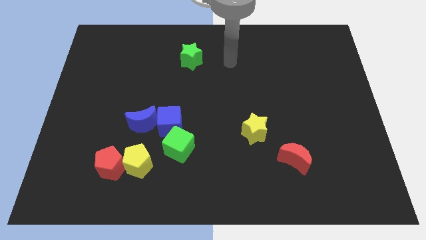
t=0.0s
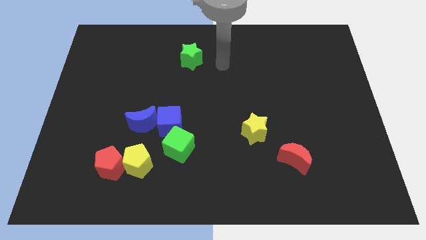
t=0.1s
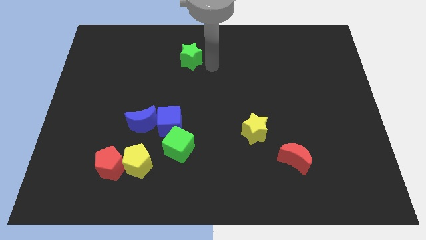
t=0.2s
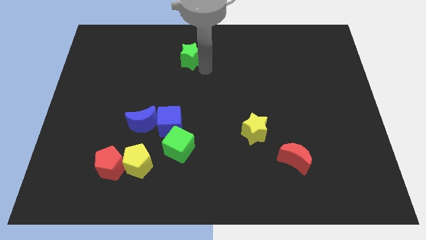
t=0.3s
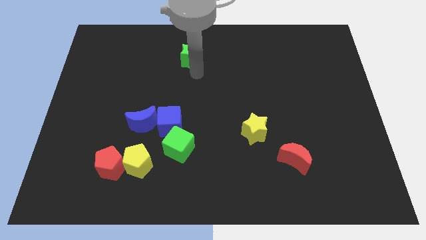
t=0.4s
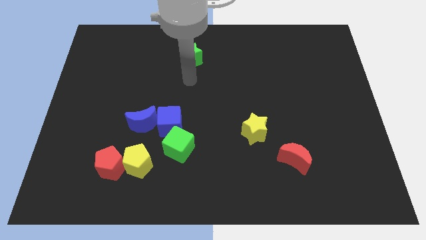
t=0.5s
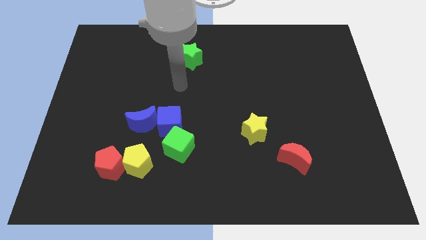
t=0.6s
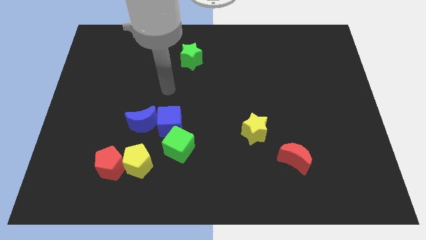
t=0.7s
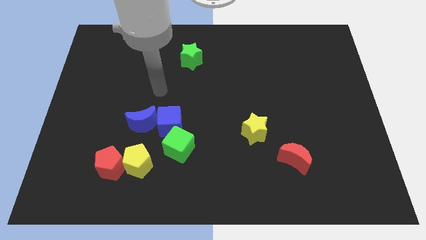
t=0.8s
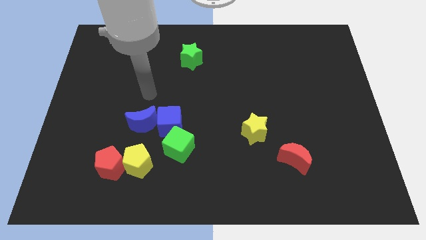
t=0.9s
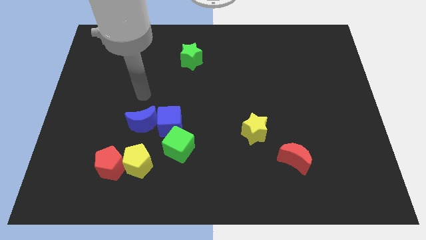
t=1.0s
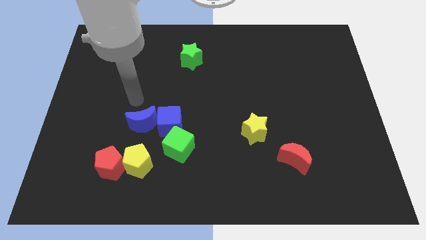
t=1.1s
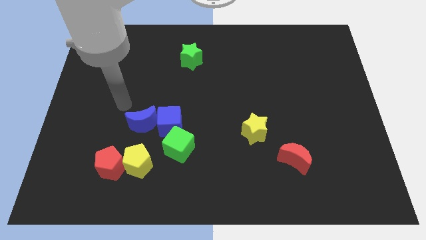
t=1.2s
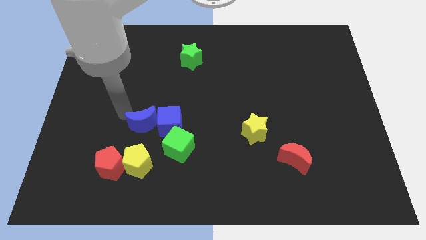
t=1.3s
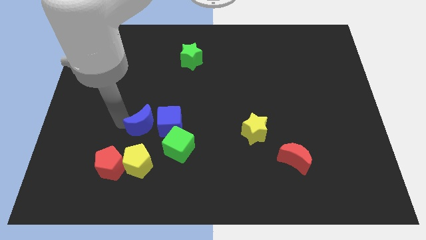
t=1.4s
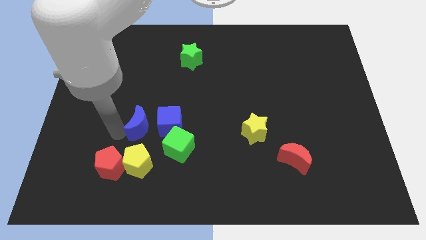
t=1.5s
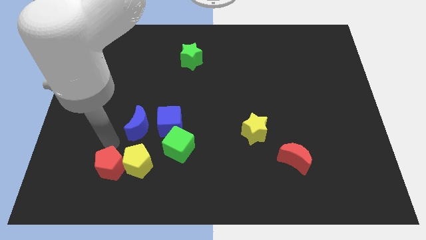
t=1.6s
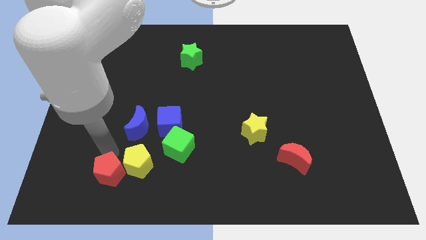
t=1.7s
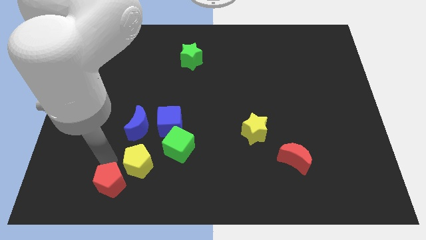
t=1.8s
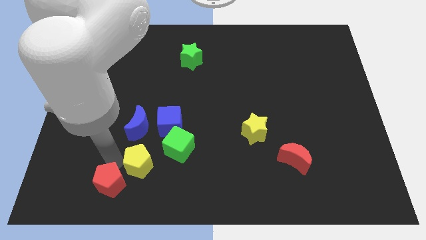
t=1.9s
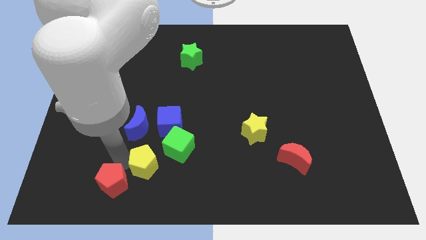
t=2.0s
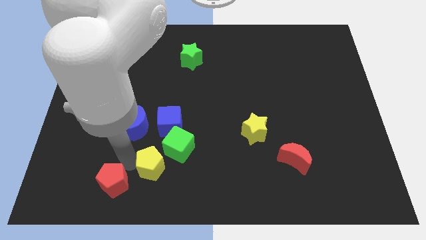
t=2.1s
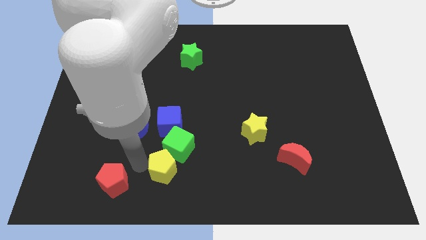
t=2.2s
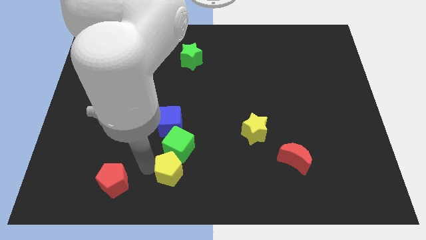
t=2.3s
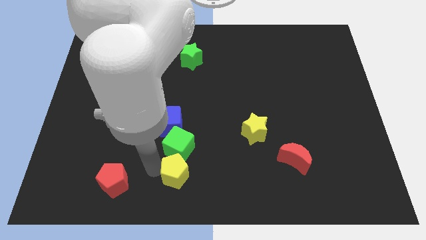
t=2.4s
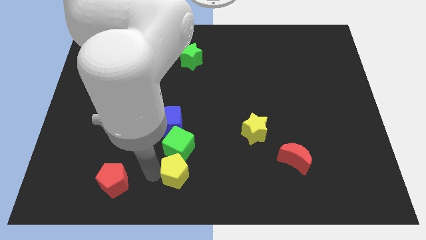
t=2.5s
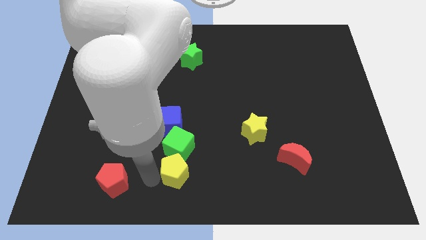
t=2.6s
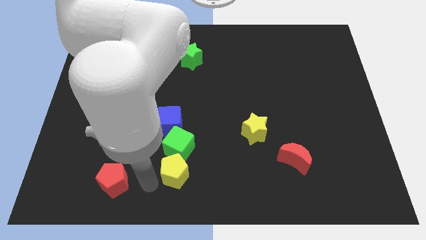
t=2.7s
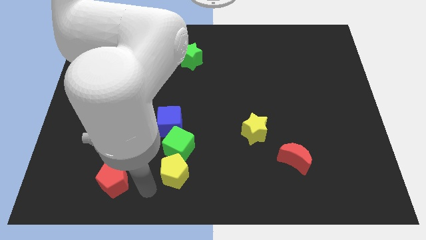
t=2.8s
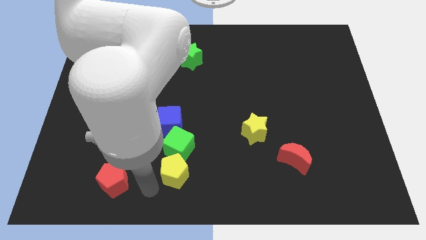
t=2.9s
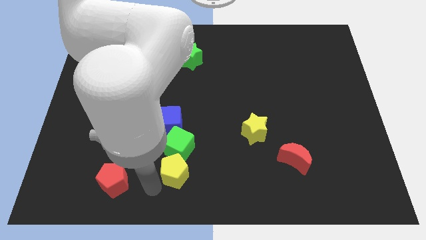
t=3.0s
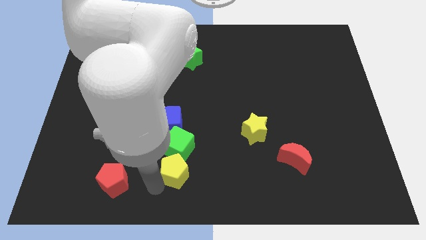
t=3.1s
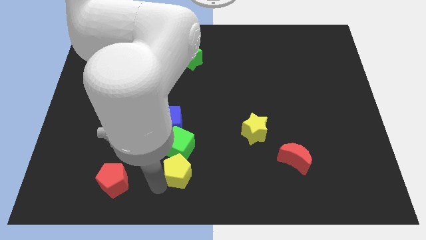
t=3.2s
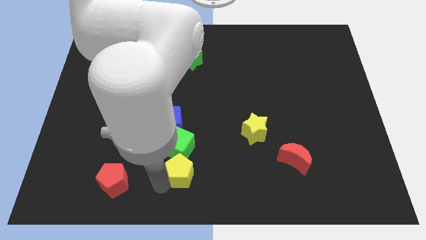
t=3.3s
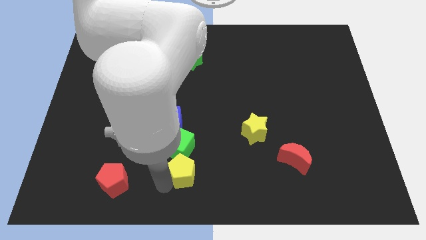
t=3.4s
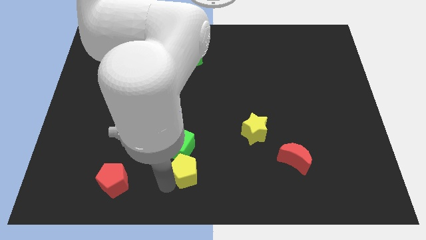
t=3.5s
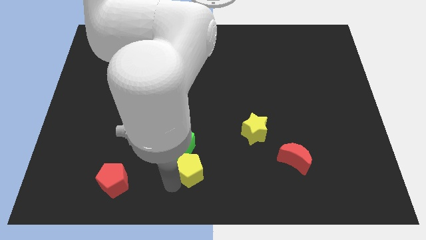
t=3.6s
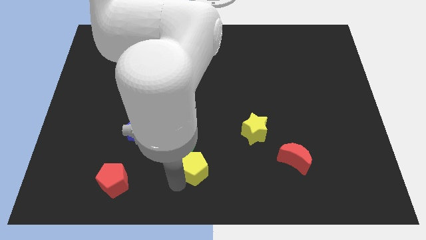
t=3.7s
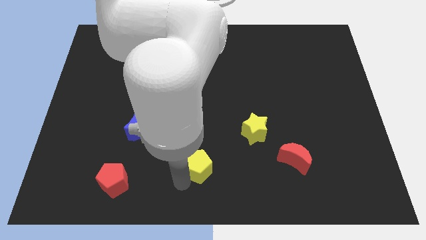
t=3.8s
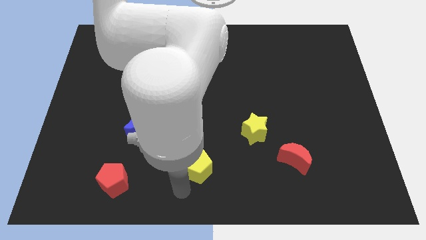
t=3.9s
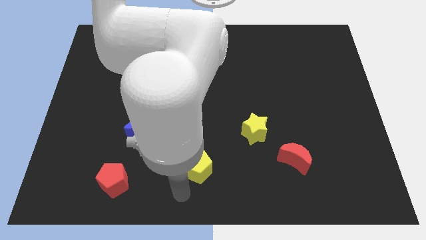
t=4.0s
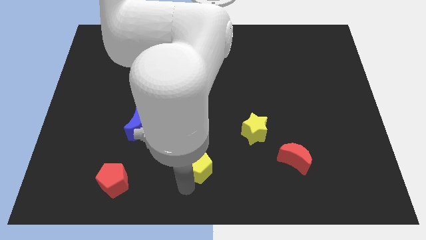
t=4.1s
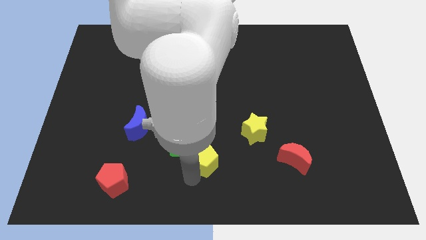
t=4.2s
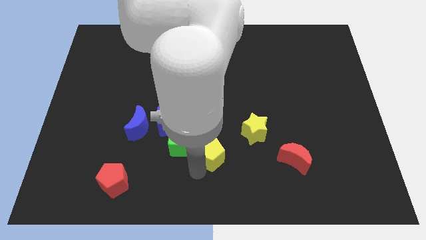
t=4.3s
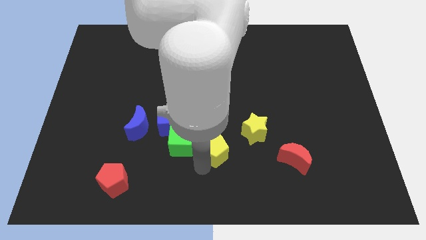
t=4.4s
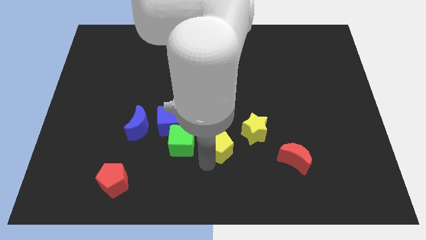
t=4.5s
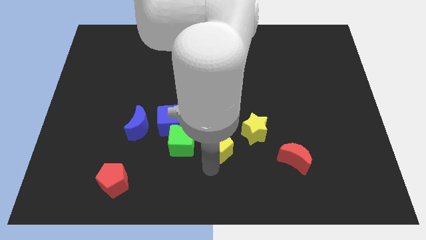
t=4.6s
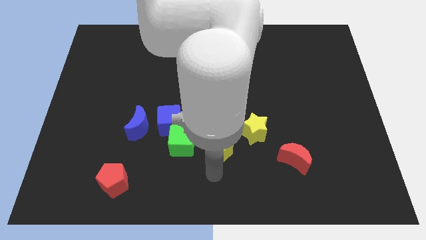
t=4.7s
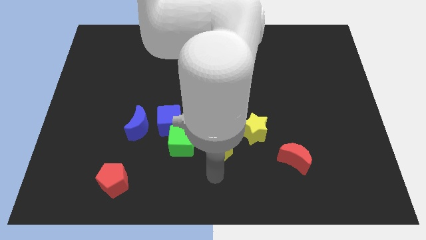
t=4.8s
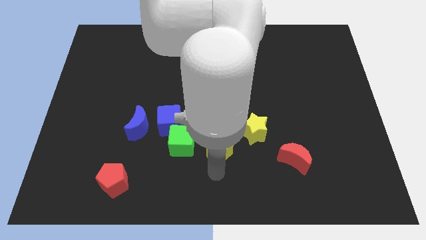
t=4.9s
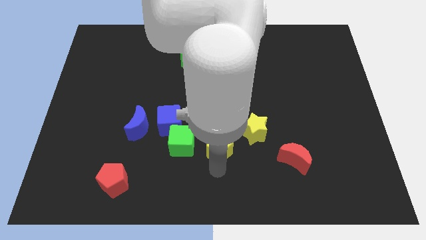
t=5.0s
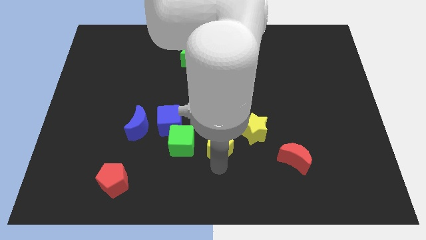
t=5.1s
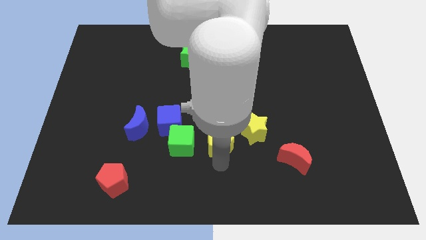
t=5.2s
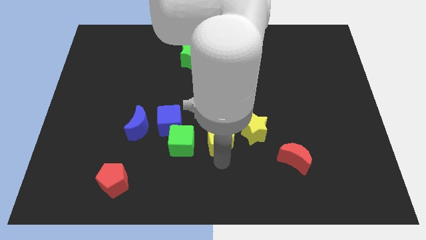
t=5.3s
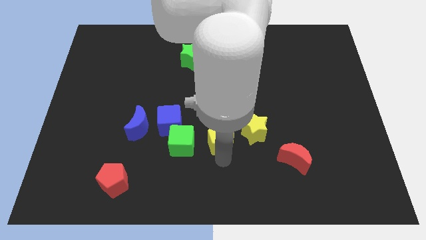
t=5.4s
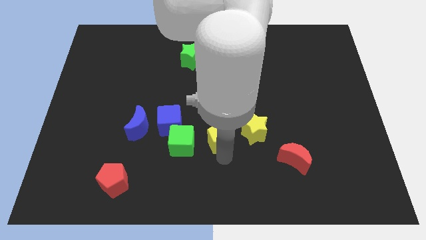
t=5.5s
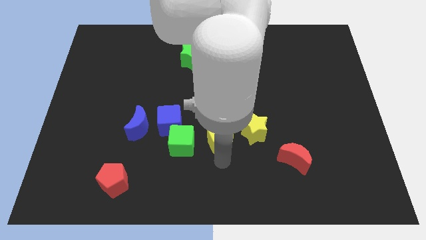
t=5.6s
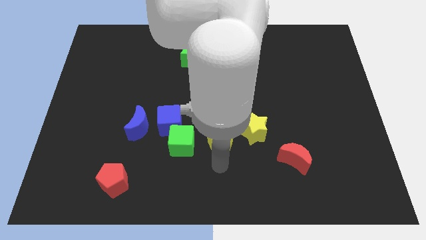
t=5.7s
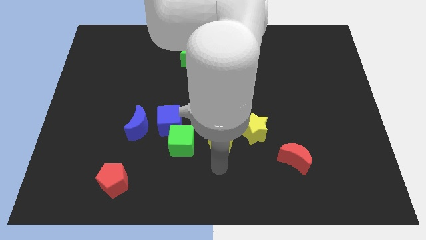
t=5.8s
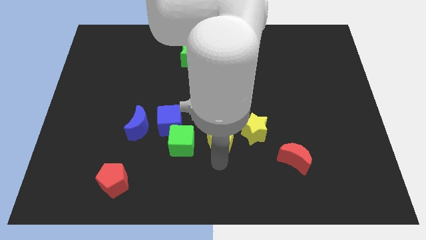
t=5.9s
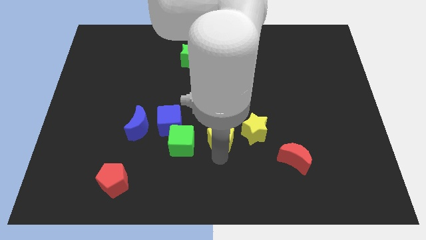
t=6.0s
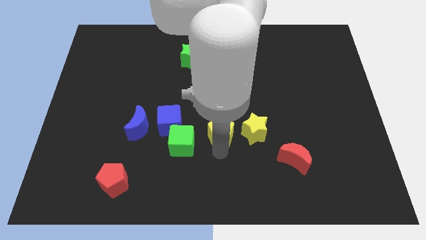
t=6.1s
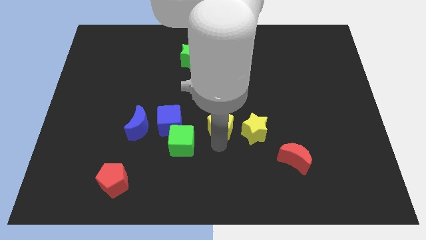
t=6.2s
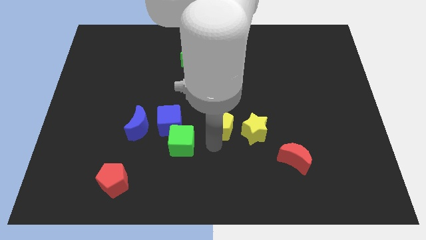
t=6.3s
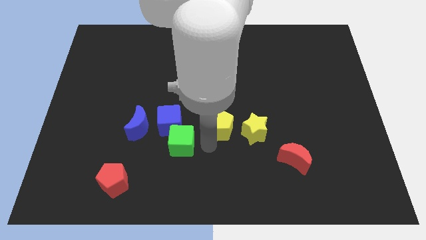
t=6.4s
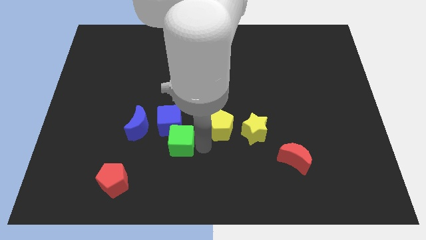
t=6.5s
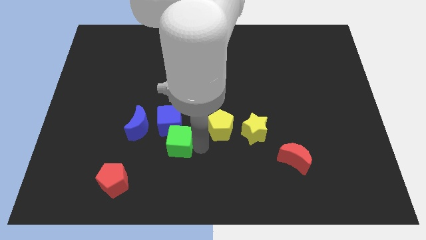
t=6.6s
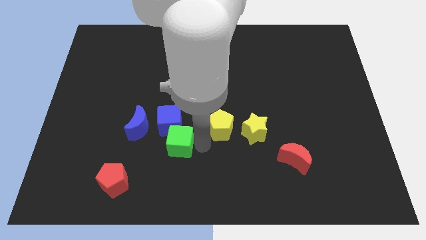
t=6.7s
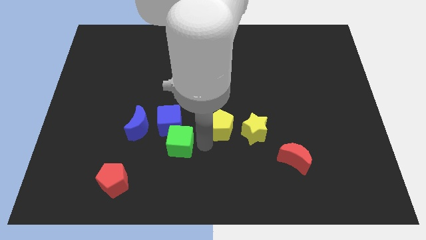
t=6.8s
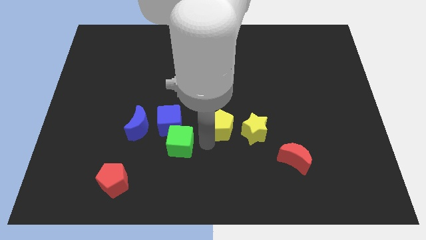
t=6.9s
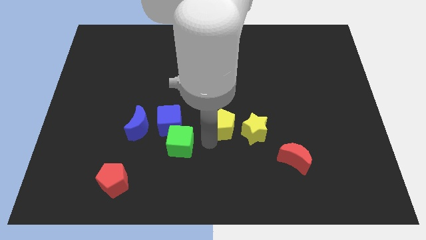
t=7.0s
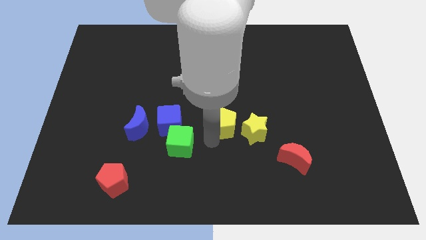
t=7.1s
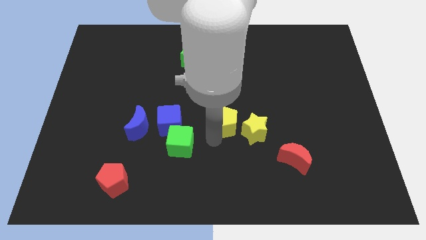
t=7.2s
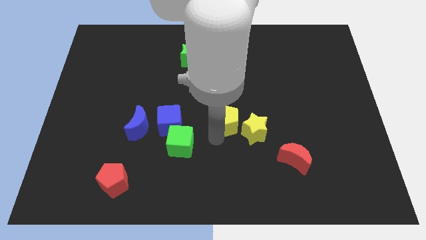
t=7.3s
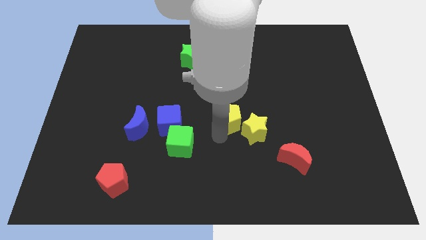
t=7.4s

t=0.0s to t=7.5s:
push the yellow pentagon upwards and to the right diagonally
